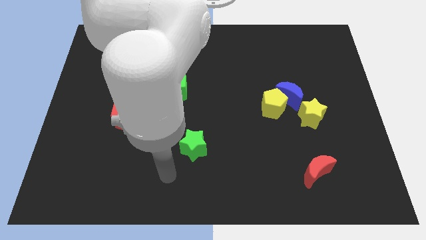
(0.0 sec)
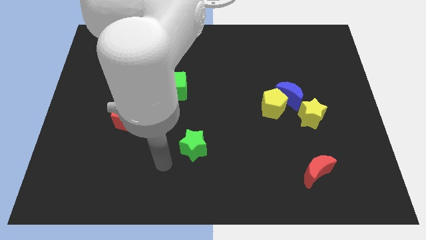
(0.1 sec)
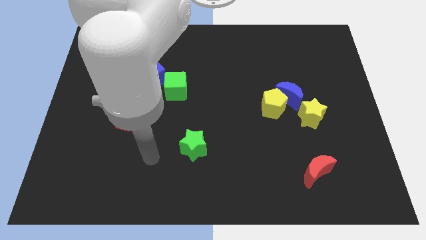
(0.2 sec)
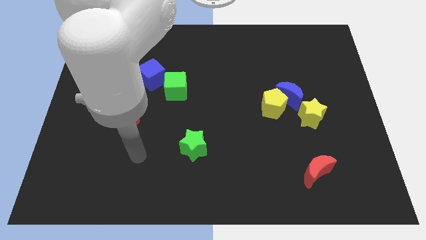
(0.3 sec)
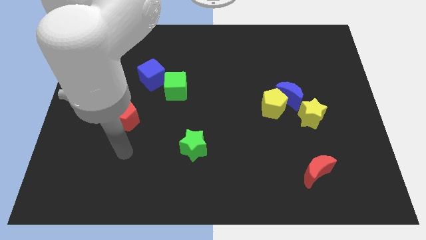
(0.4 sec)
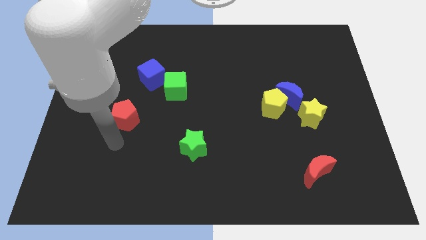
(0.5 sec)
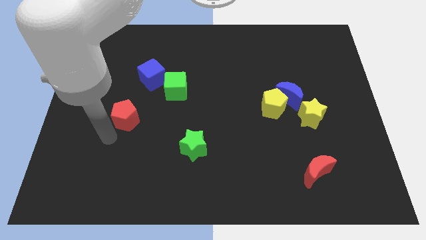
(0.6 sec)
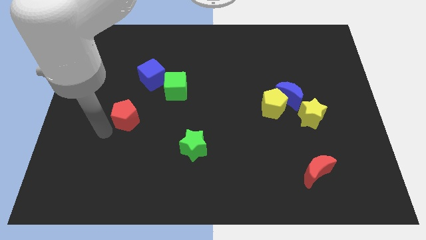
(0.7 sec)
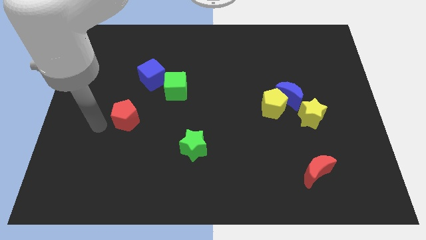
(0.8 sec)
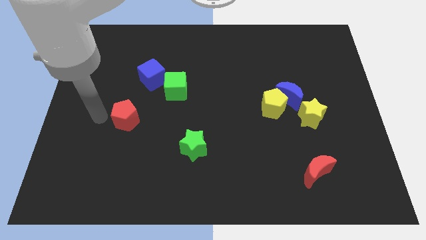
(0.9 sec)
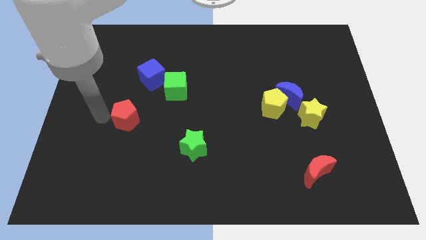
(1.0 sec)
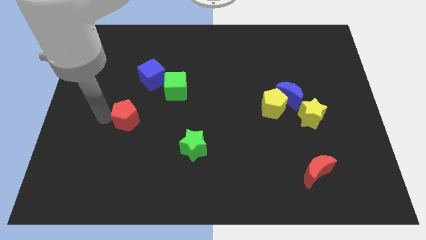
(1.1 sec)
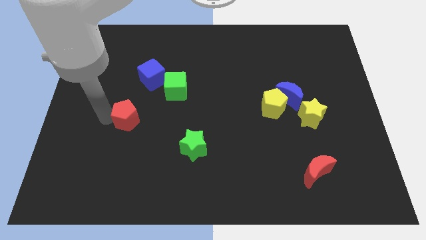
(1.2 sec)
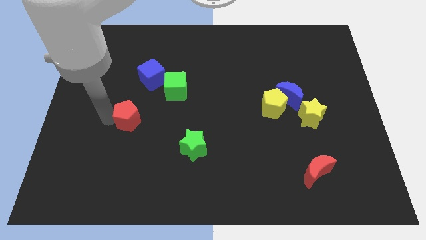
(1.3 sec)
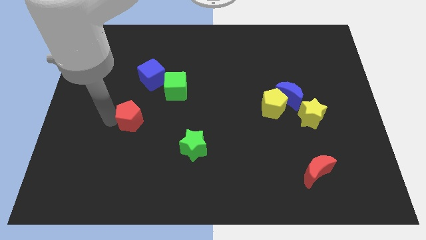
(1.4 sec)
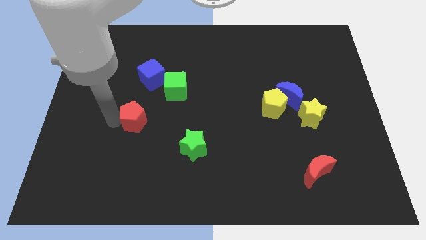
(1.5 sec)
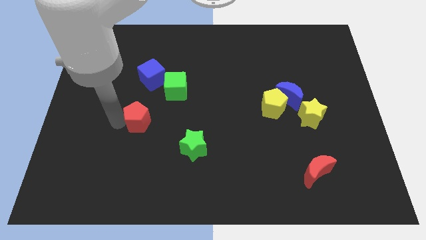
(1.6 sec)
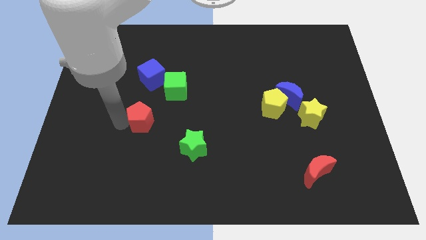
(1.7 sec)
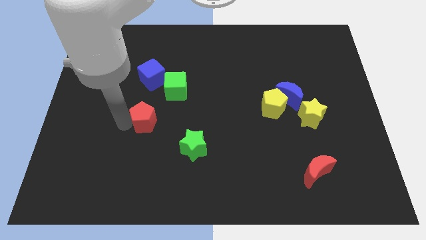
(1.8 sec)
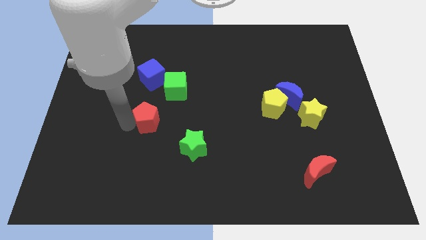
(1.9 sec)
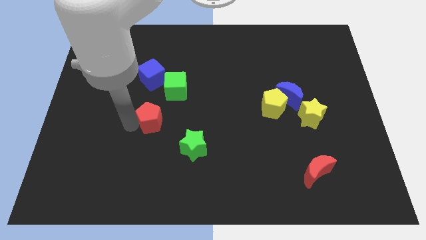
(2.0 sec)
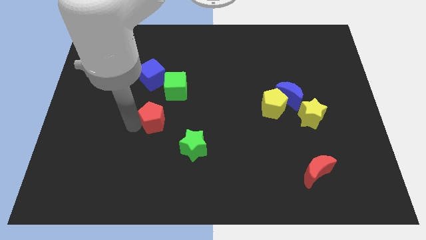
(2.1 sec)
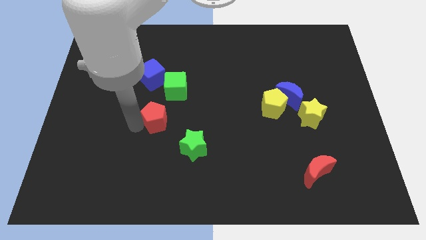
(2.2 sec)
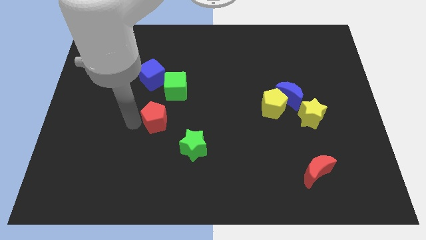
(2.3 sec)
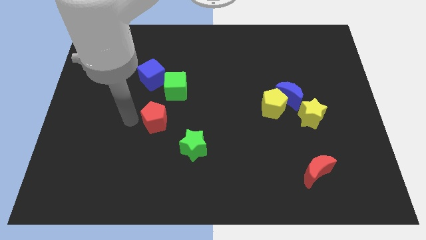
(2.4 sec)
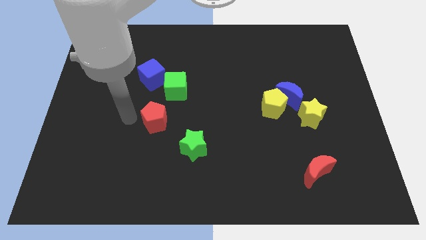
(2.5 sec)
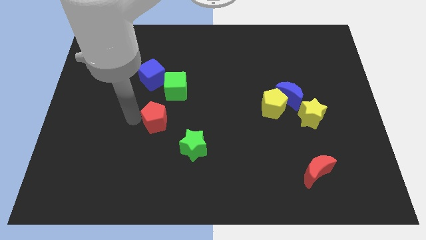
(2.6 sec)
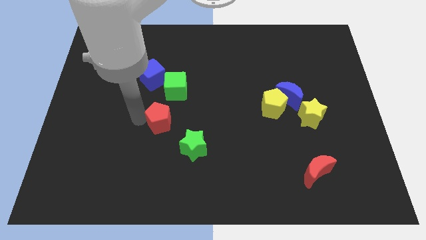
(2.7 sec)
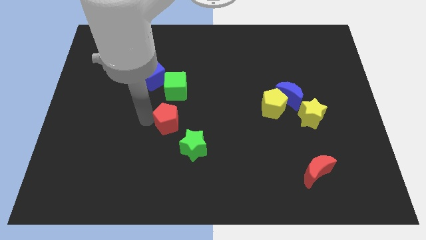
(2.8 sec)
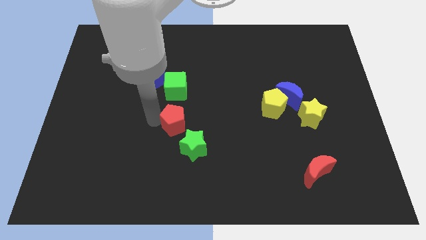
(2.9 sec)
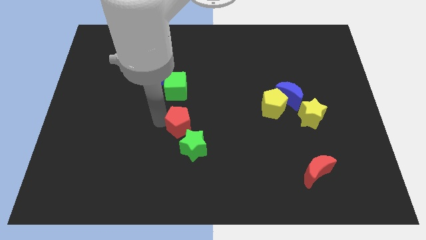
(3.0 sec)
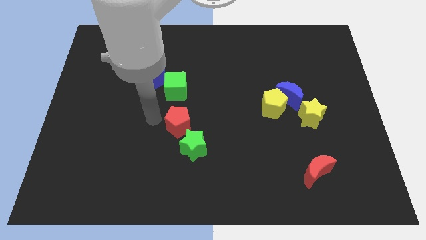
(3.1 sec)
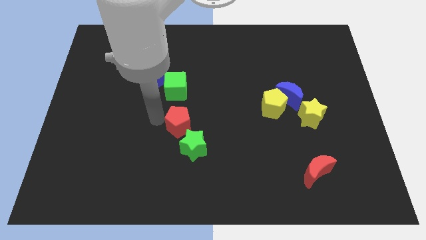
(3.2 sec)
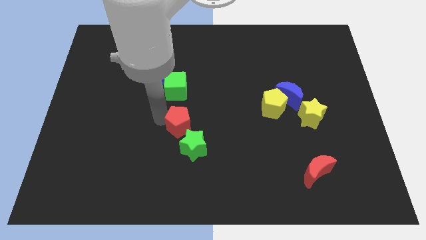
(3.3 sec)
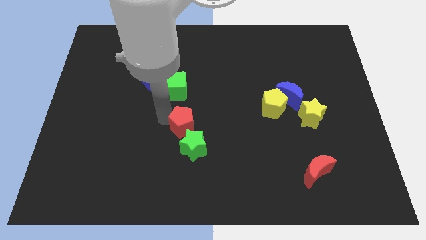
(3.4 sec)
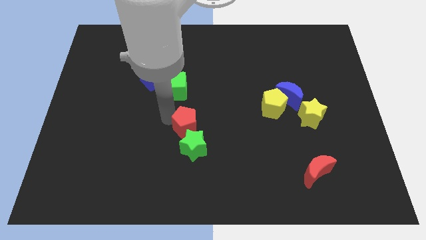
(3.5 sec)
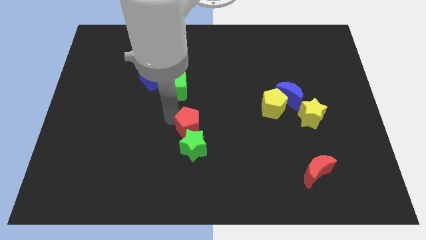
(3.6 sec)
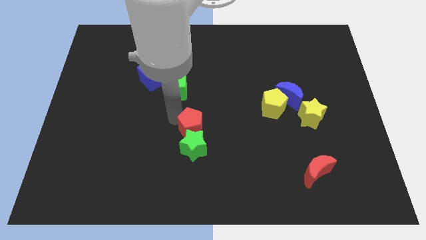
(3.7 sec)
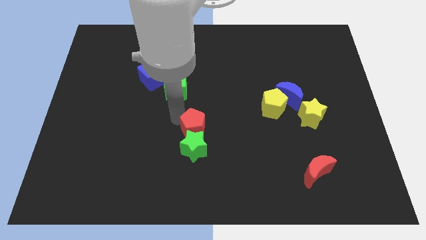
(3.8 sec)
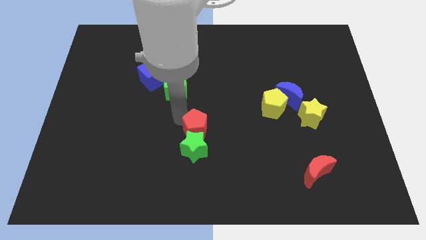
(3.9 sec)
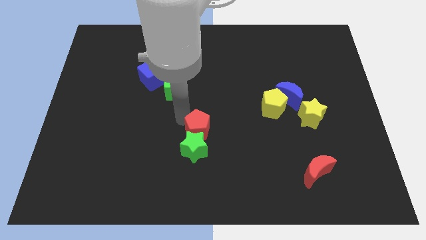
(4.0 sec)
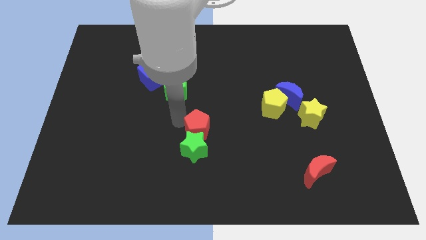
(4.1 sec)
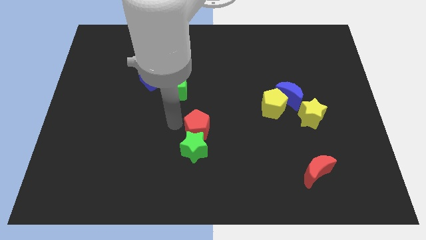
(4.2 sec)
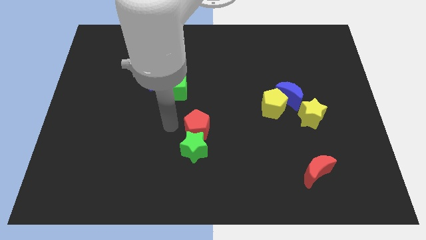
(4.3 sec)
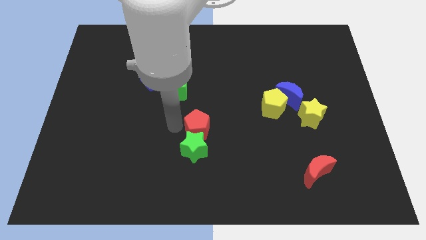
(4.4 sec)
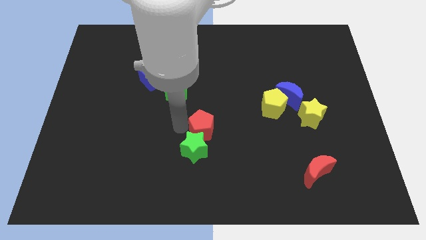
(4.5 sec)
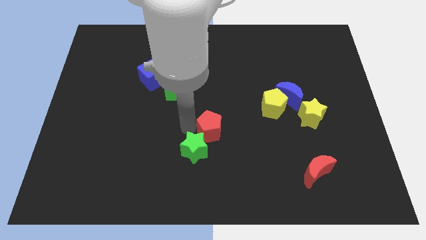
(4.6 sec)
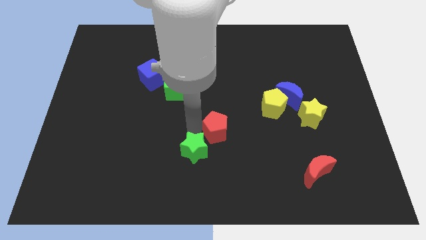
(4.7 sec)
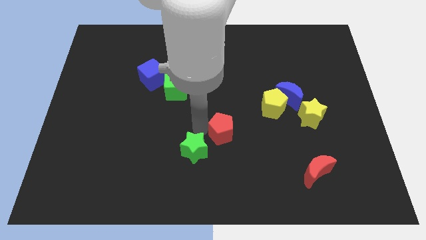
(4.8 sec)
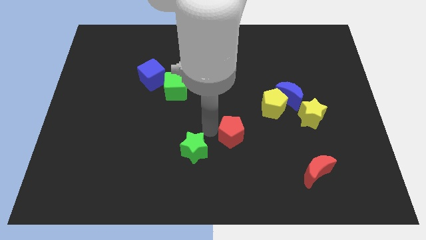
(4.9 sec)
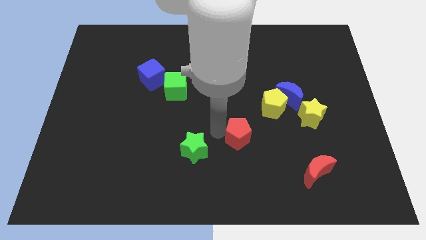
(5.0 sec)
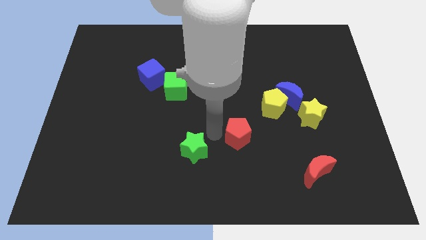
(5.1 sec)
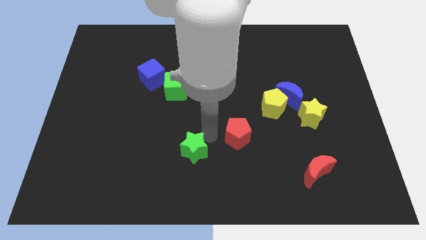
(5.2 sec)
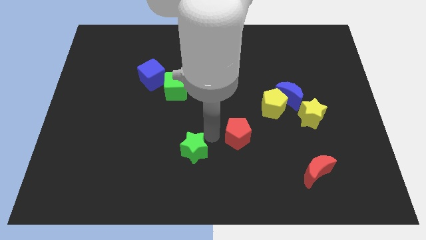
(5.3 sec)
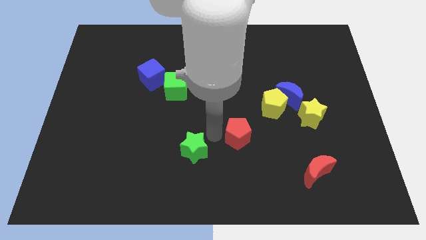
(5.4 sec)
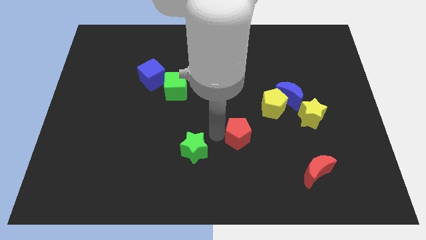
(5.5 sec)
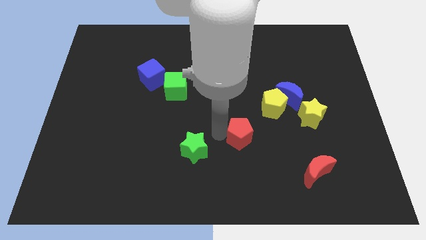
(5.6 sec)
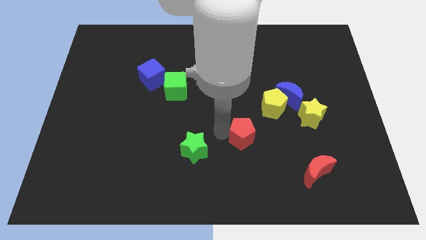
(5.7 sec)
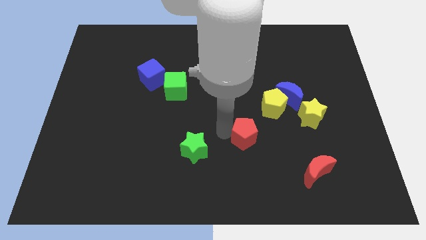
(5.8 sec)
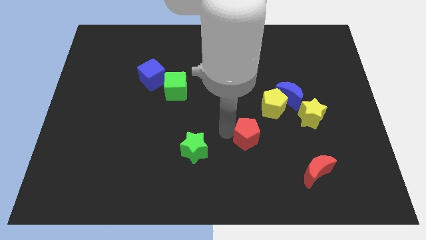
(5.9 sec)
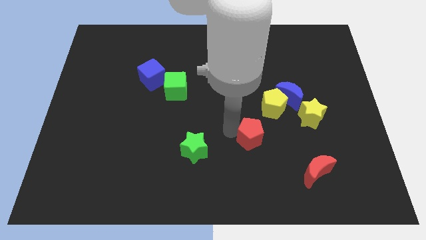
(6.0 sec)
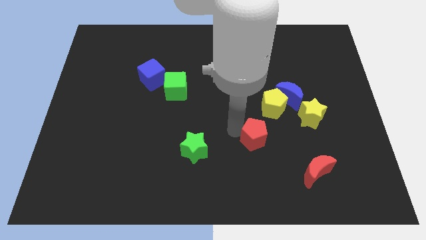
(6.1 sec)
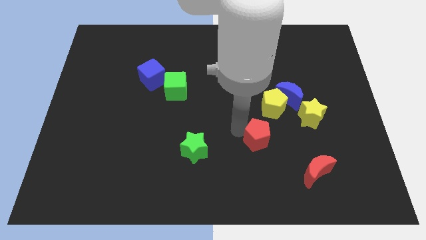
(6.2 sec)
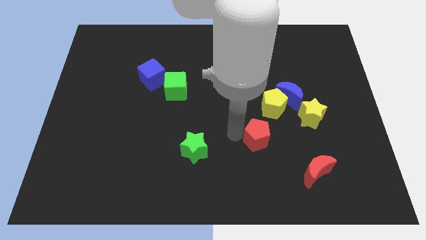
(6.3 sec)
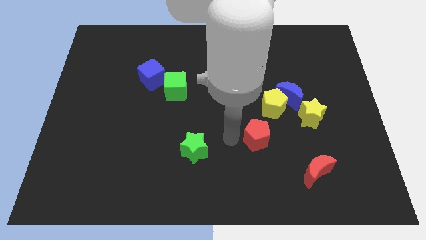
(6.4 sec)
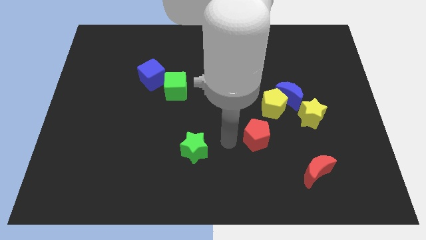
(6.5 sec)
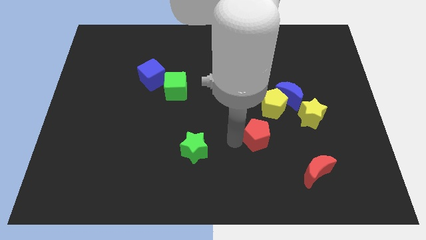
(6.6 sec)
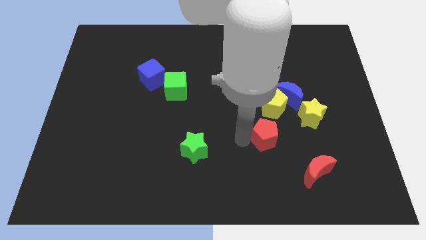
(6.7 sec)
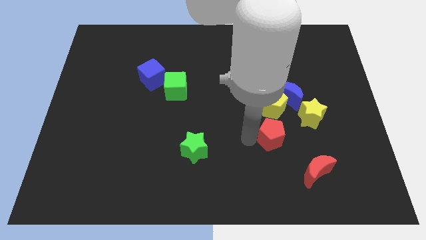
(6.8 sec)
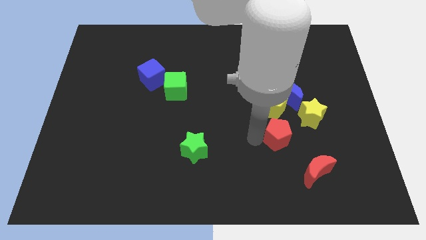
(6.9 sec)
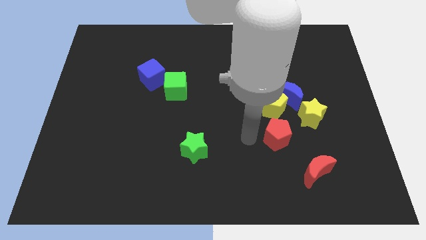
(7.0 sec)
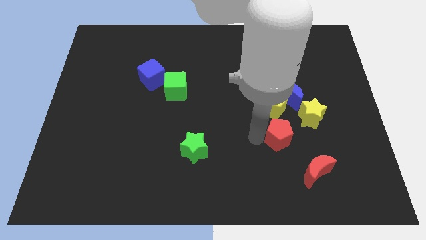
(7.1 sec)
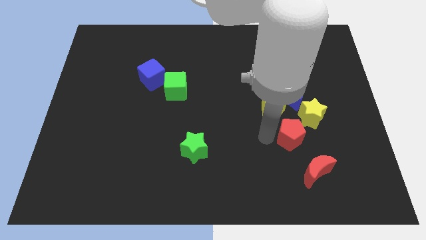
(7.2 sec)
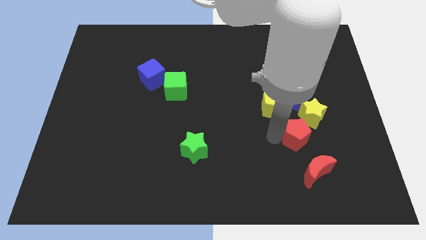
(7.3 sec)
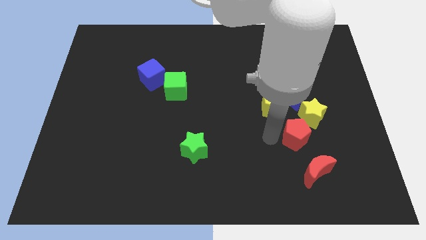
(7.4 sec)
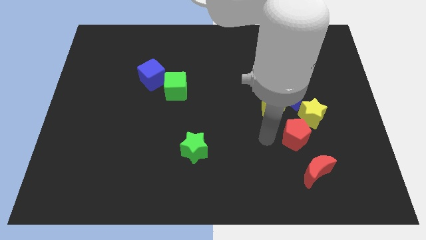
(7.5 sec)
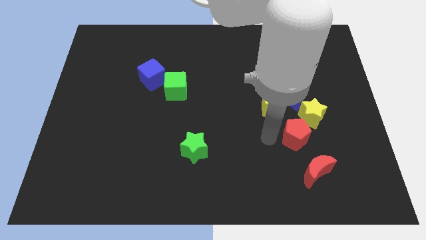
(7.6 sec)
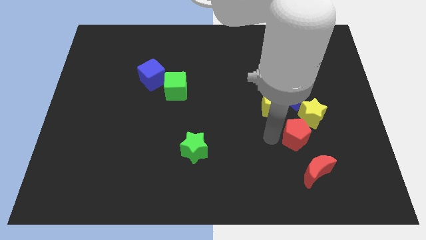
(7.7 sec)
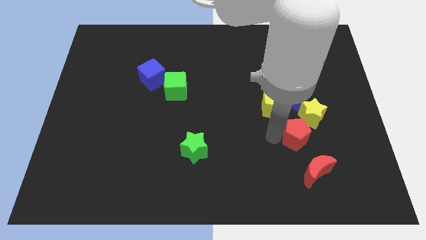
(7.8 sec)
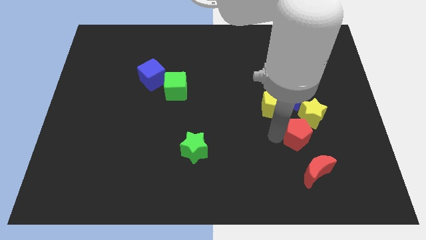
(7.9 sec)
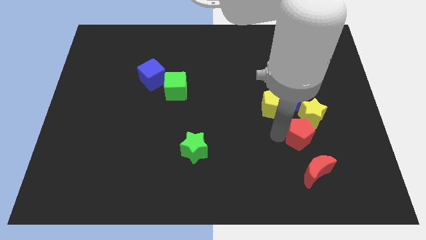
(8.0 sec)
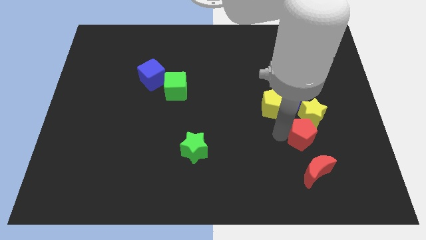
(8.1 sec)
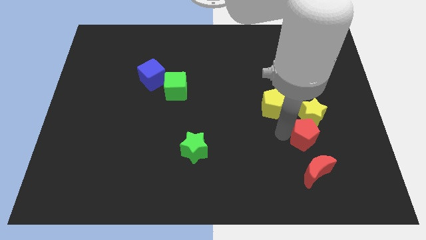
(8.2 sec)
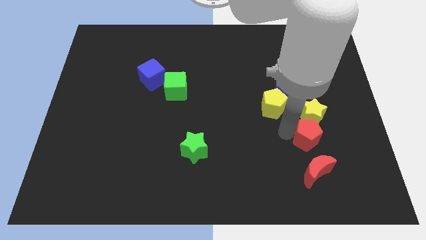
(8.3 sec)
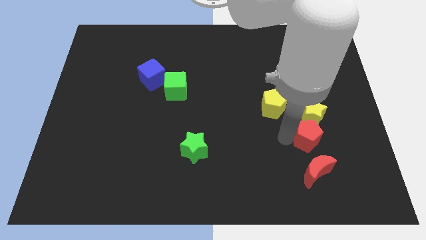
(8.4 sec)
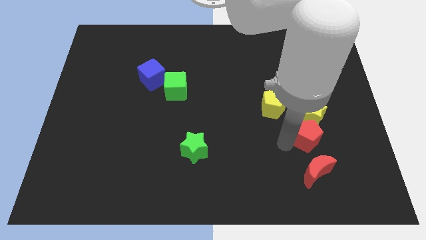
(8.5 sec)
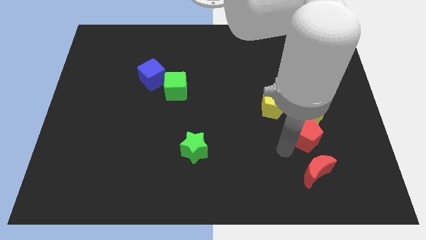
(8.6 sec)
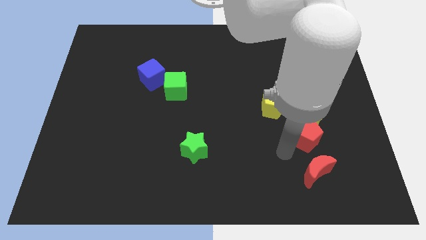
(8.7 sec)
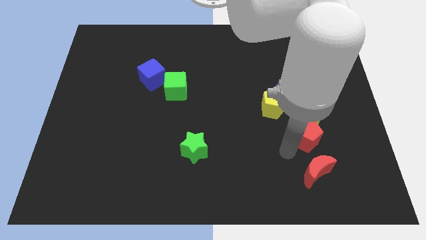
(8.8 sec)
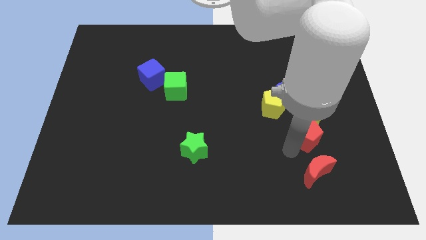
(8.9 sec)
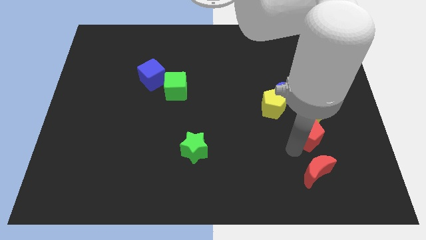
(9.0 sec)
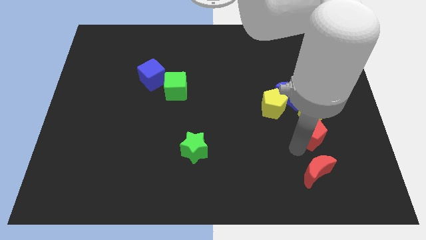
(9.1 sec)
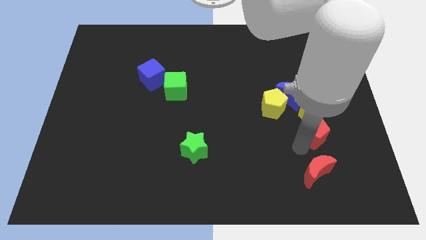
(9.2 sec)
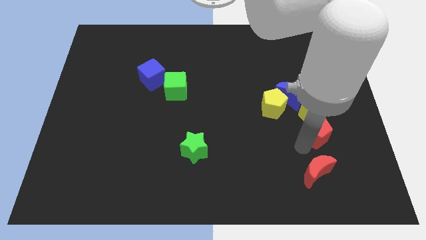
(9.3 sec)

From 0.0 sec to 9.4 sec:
move the red pentagon to the bottom right side of the blue moon
